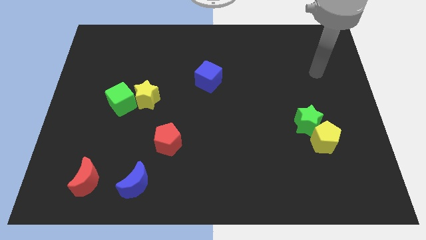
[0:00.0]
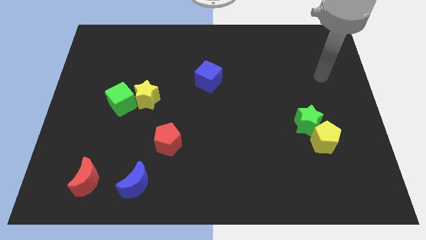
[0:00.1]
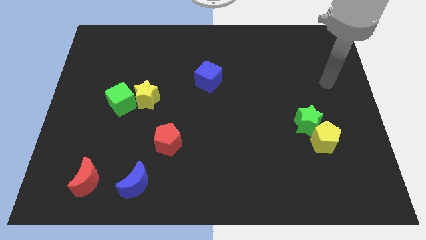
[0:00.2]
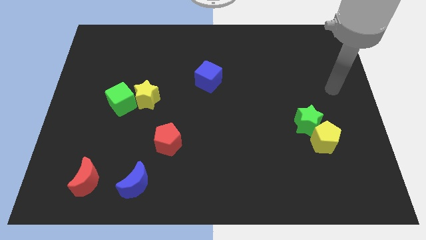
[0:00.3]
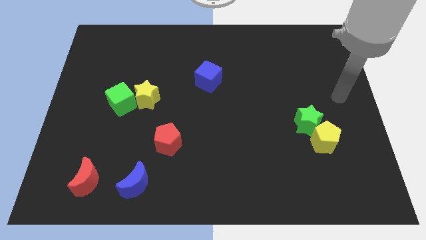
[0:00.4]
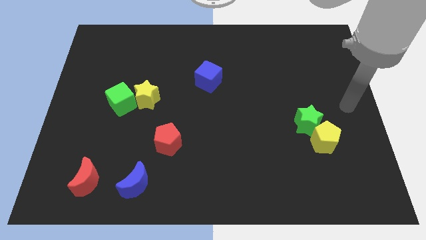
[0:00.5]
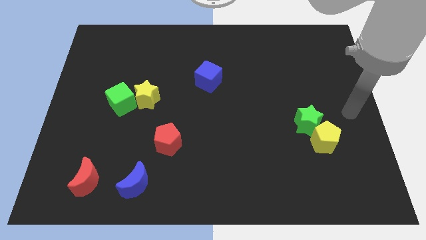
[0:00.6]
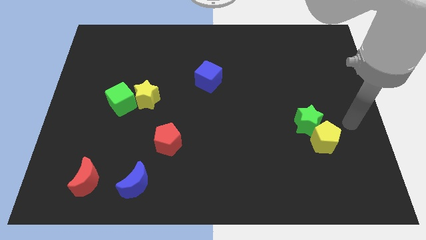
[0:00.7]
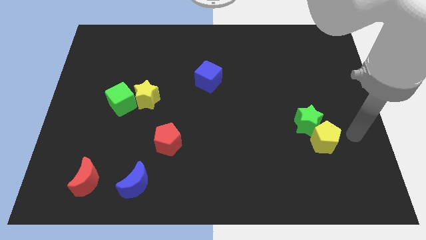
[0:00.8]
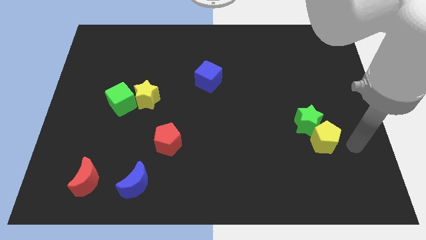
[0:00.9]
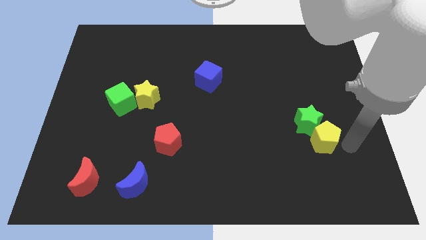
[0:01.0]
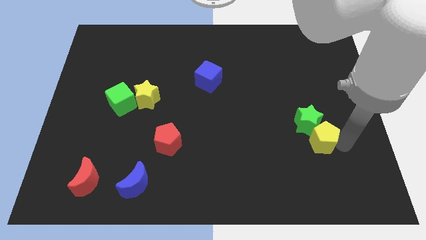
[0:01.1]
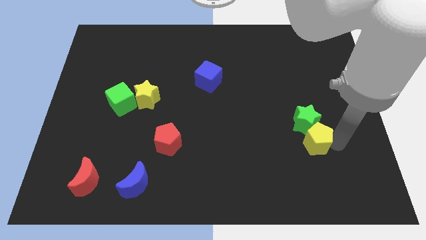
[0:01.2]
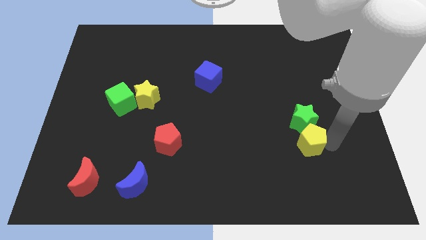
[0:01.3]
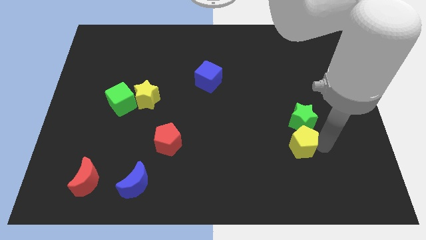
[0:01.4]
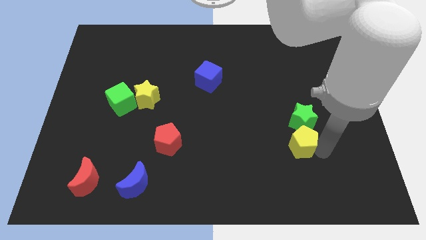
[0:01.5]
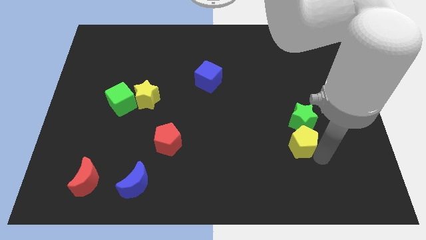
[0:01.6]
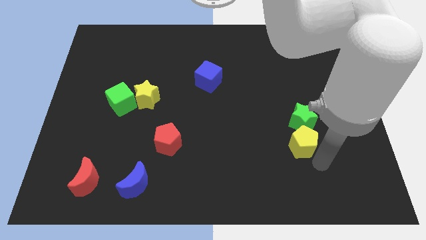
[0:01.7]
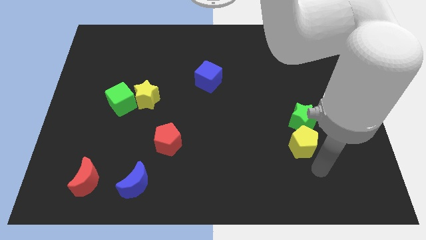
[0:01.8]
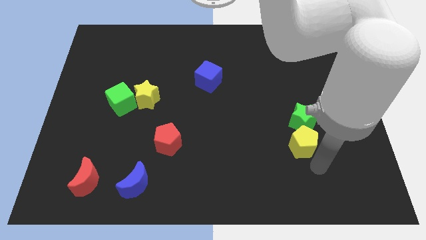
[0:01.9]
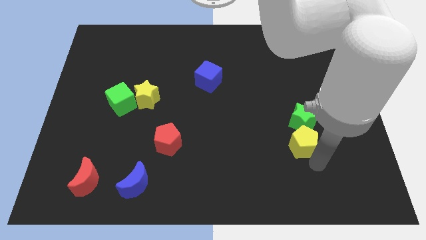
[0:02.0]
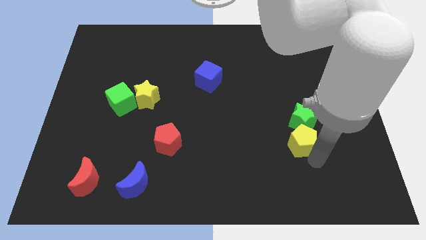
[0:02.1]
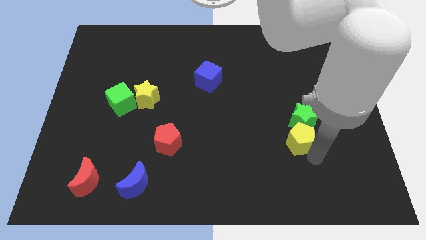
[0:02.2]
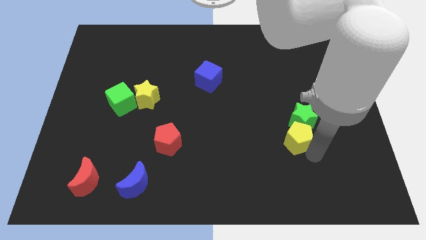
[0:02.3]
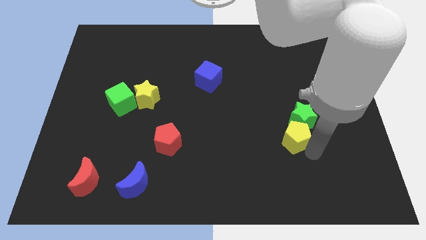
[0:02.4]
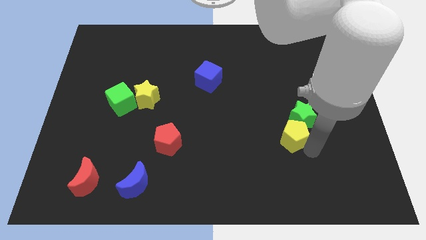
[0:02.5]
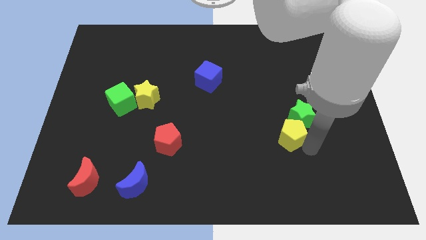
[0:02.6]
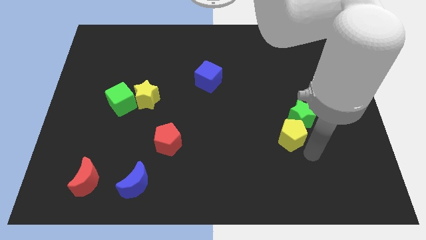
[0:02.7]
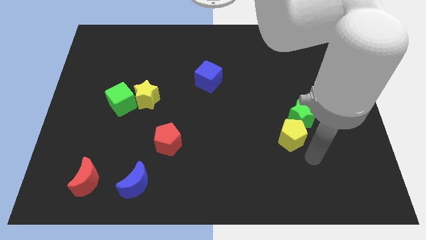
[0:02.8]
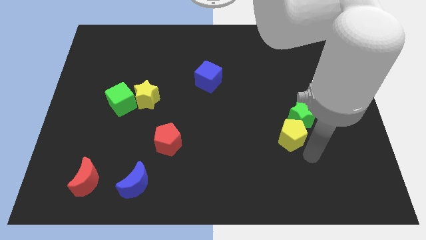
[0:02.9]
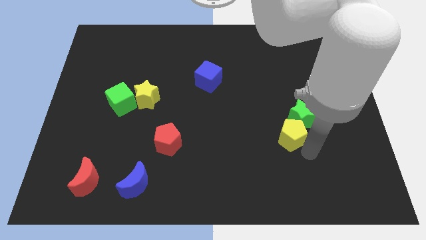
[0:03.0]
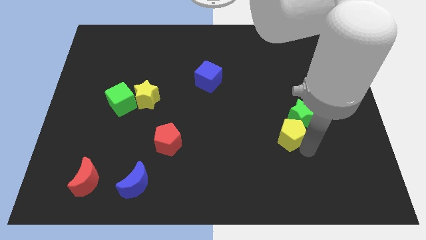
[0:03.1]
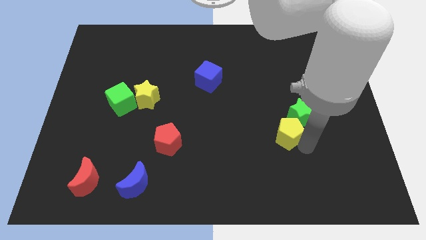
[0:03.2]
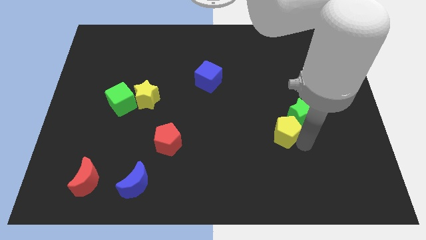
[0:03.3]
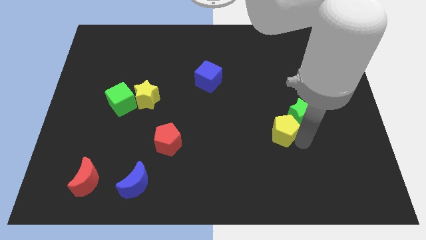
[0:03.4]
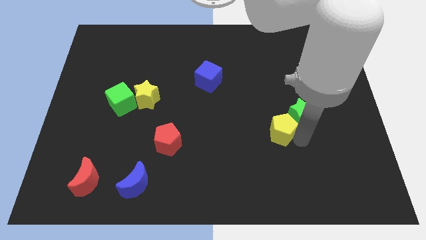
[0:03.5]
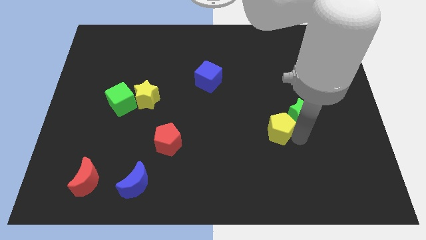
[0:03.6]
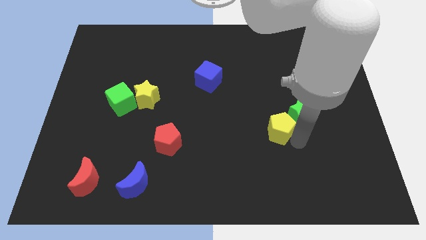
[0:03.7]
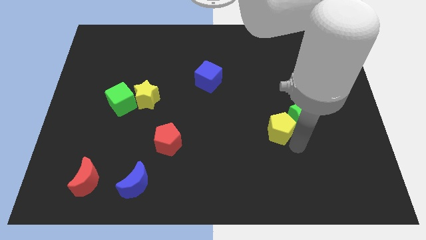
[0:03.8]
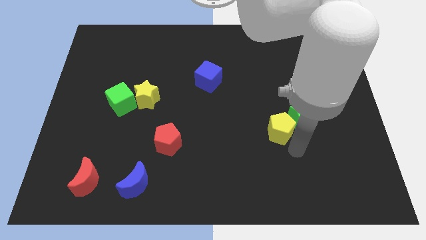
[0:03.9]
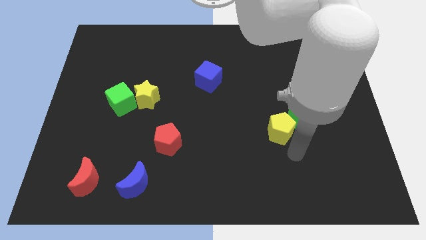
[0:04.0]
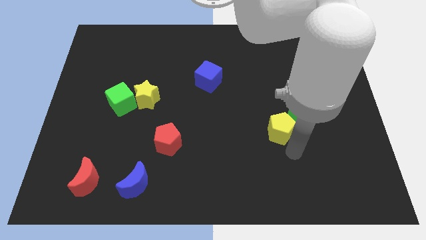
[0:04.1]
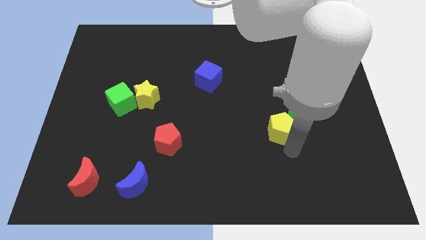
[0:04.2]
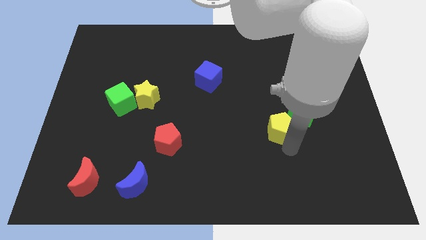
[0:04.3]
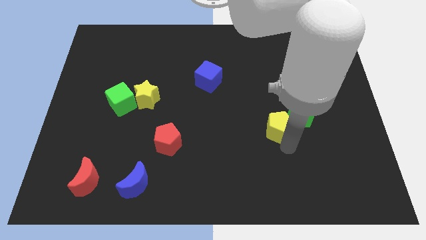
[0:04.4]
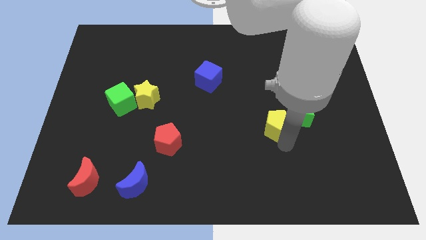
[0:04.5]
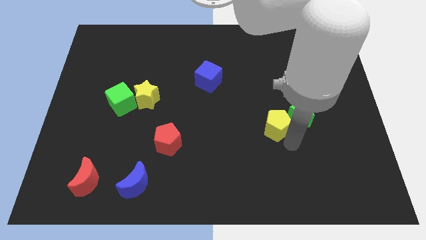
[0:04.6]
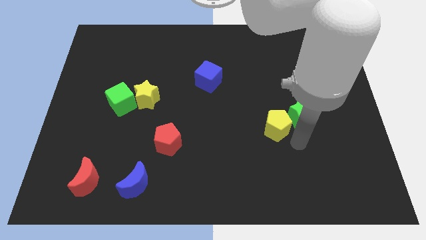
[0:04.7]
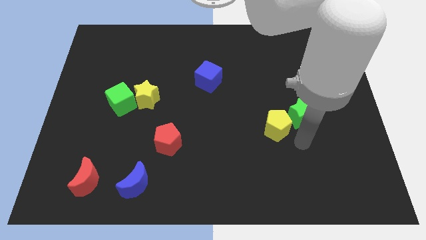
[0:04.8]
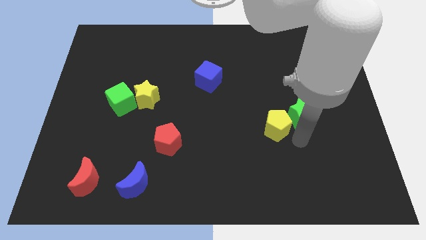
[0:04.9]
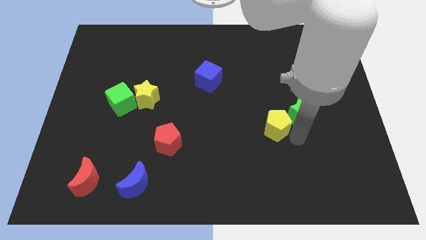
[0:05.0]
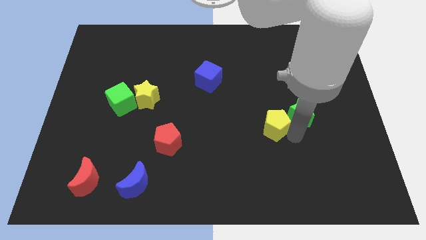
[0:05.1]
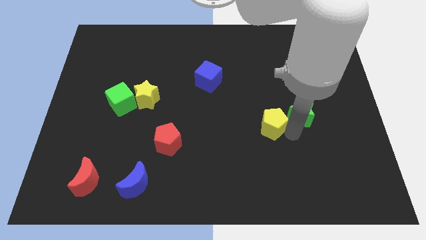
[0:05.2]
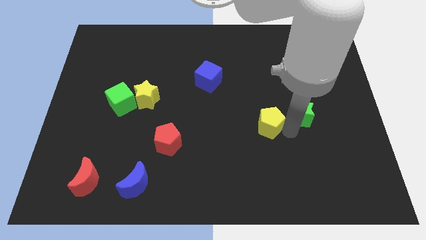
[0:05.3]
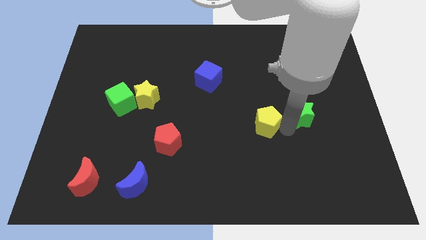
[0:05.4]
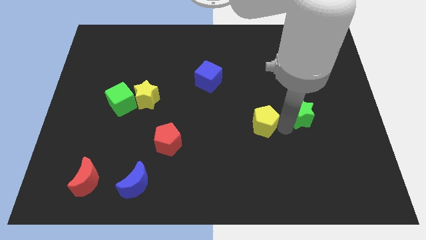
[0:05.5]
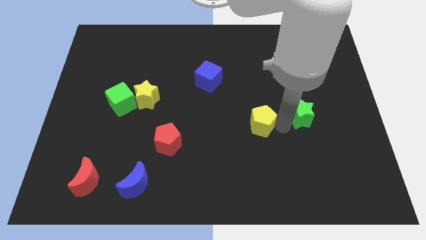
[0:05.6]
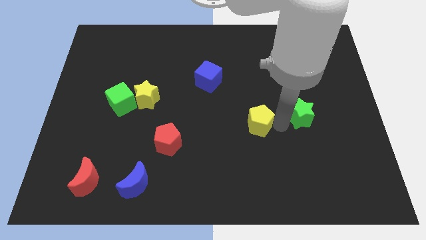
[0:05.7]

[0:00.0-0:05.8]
slide the yellow pentagon to the center

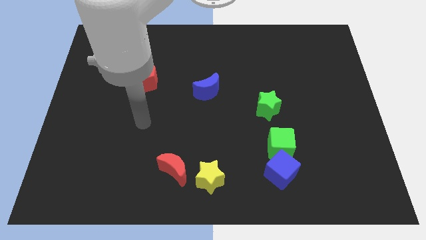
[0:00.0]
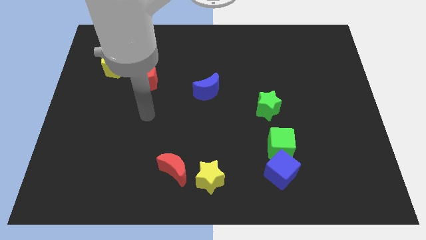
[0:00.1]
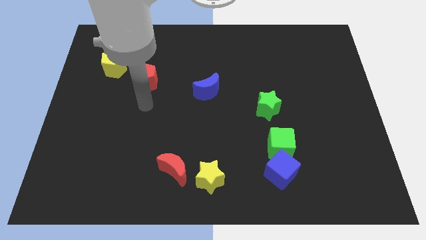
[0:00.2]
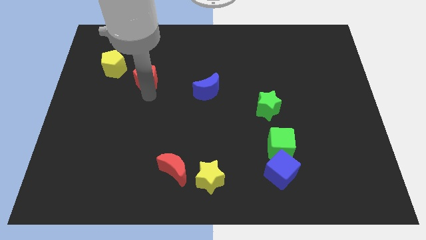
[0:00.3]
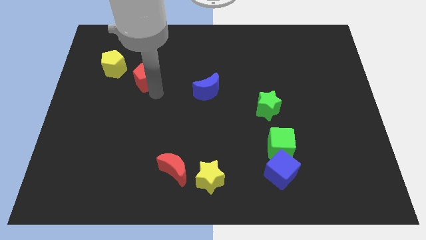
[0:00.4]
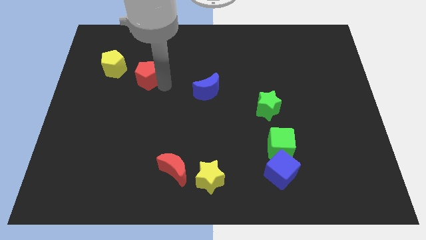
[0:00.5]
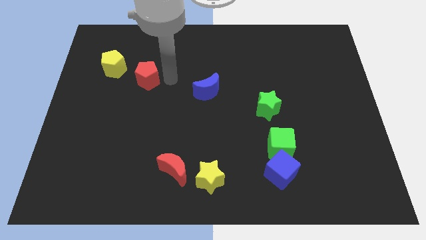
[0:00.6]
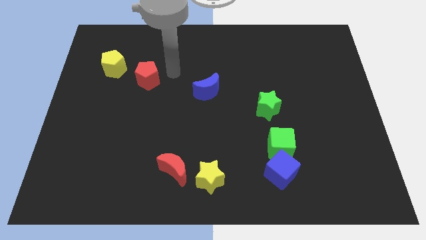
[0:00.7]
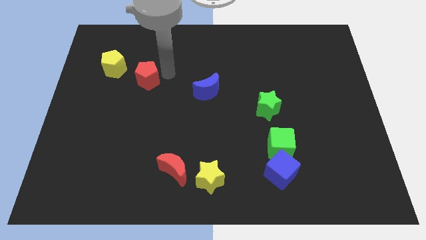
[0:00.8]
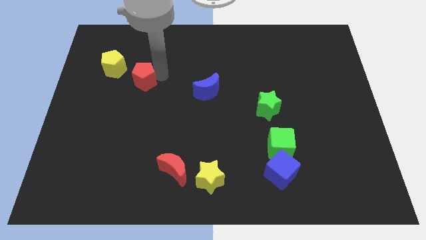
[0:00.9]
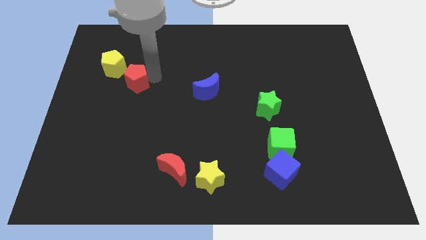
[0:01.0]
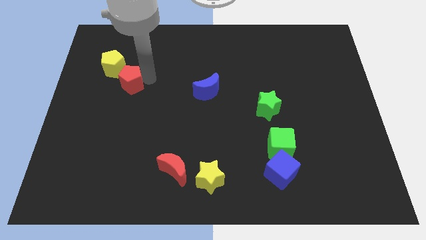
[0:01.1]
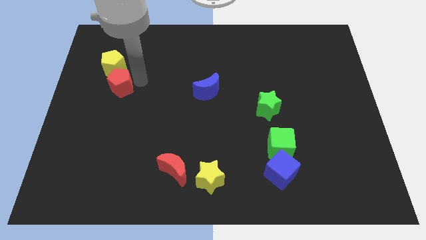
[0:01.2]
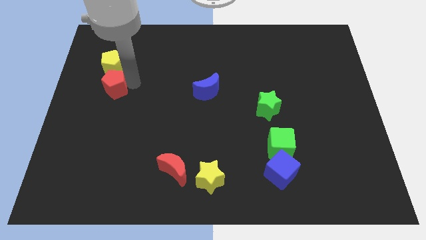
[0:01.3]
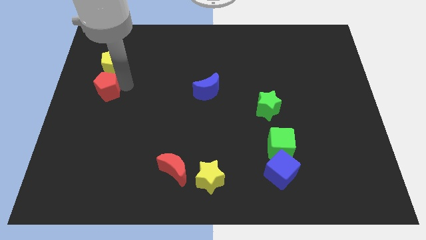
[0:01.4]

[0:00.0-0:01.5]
move the red pentagon to the left side of the board
